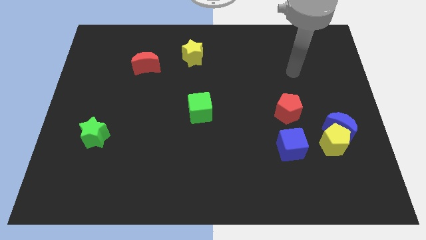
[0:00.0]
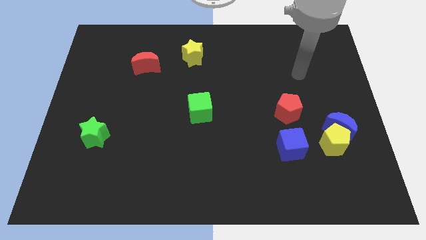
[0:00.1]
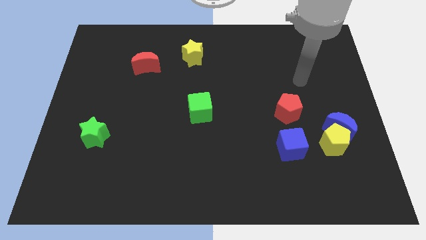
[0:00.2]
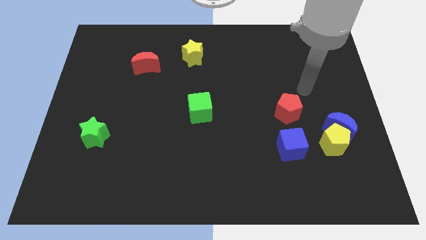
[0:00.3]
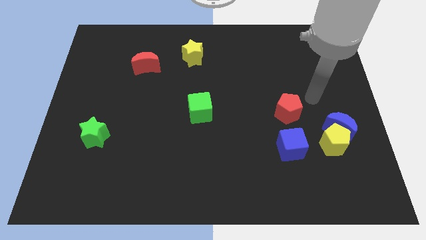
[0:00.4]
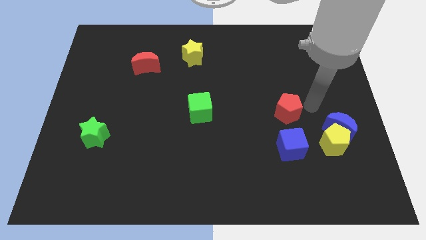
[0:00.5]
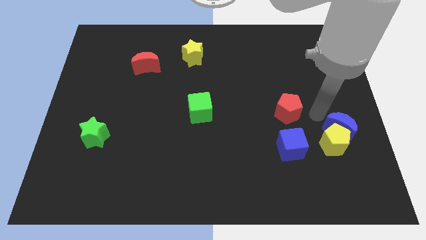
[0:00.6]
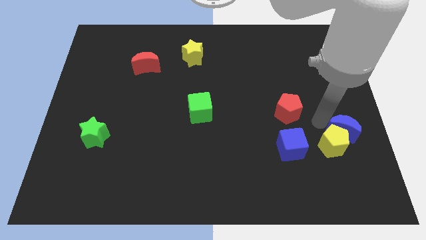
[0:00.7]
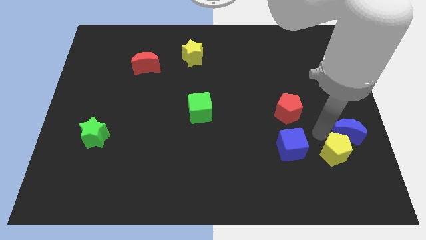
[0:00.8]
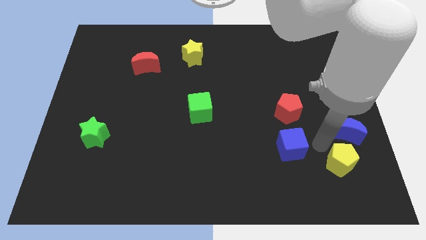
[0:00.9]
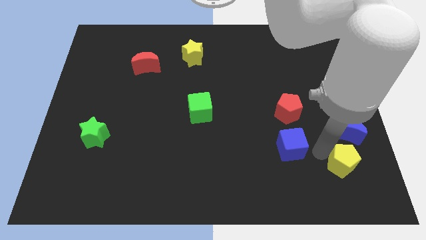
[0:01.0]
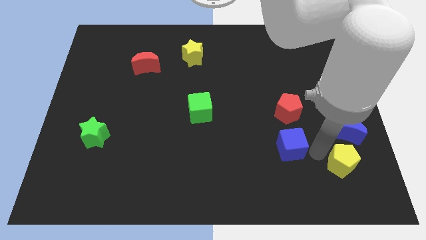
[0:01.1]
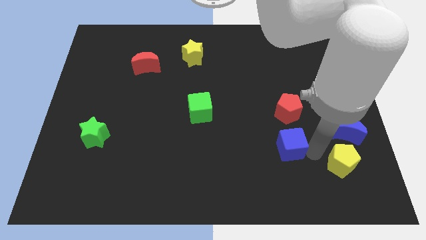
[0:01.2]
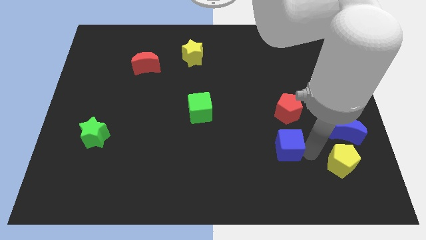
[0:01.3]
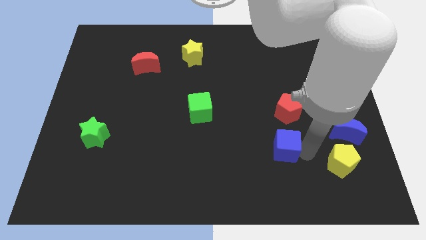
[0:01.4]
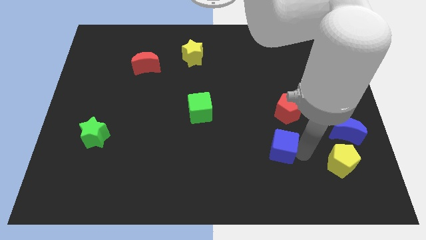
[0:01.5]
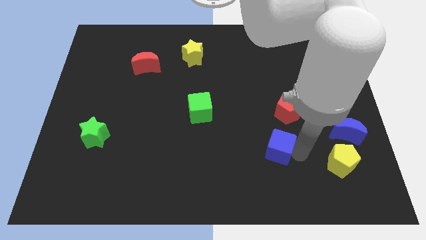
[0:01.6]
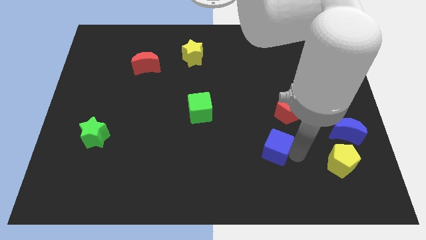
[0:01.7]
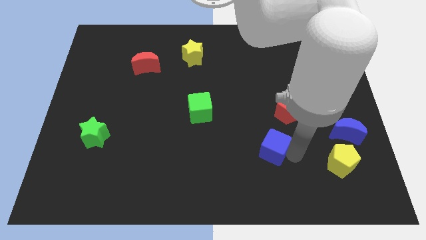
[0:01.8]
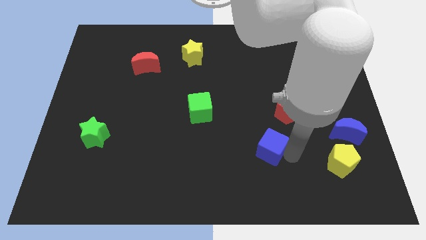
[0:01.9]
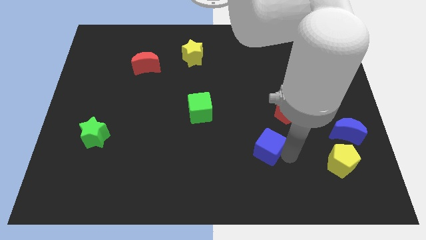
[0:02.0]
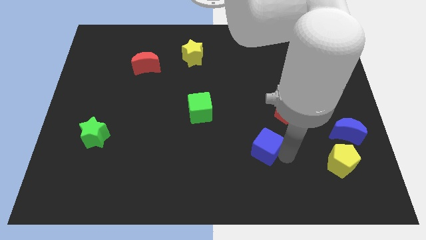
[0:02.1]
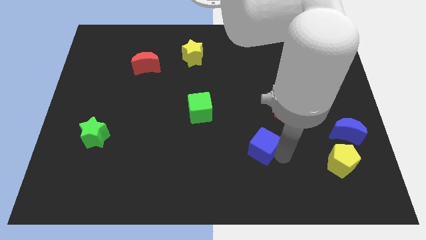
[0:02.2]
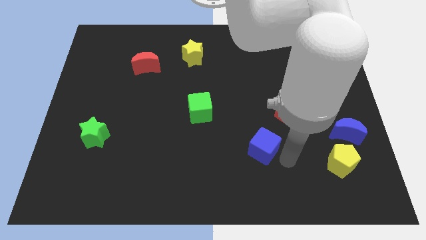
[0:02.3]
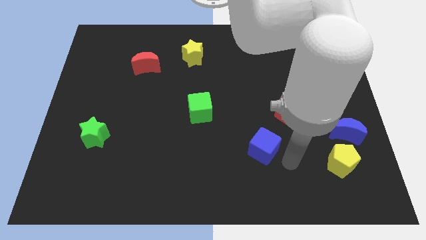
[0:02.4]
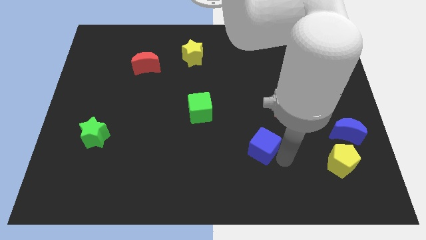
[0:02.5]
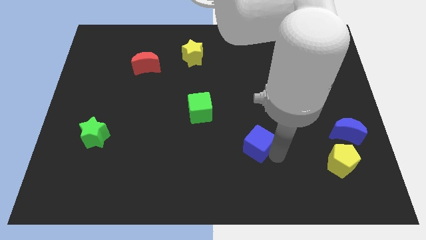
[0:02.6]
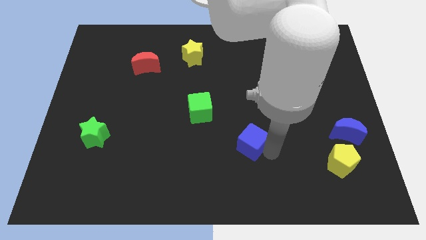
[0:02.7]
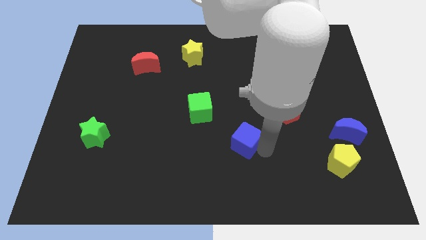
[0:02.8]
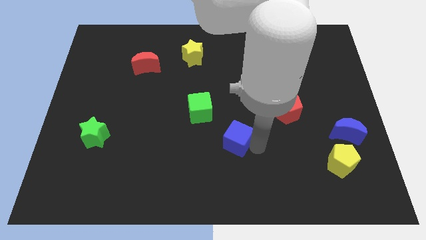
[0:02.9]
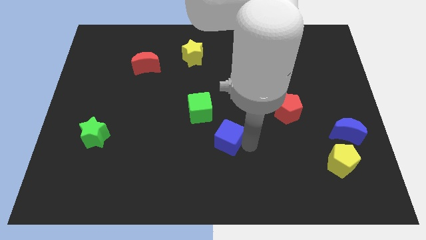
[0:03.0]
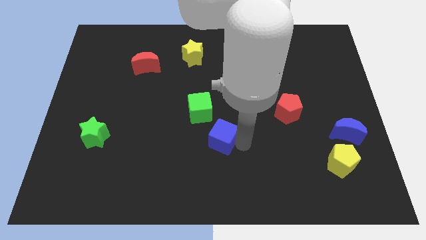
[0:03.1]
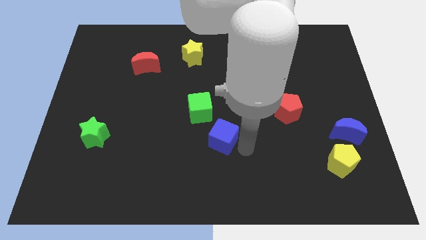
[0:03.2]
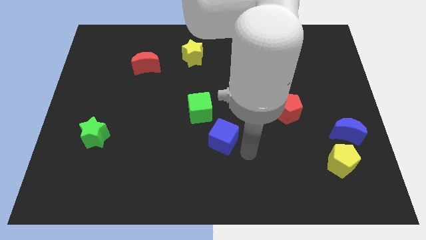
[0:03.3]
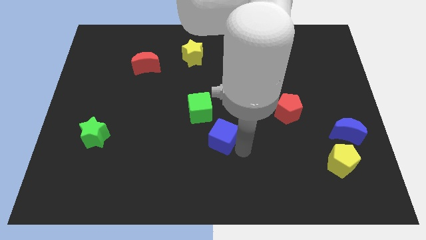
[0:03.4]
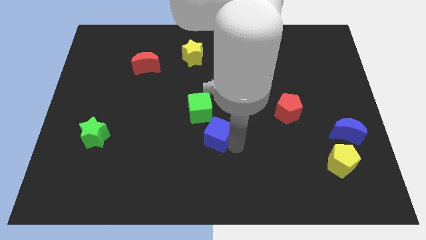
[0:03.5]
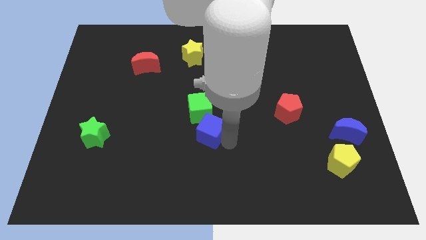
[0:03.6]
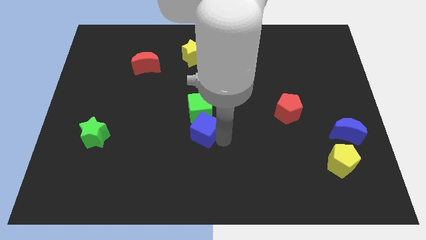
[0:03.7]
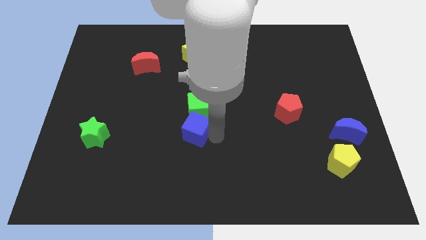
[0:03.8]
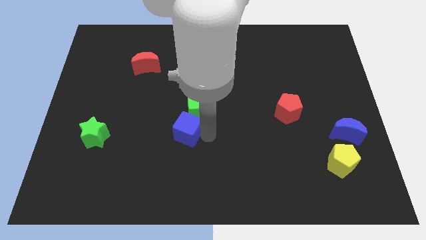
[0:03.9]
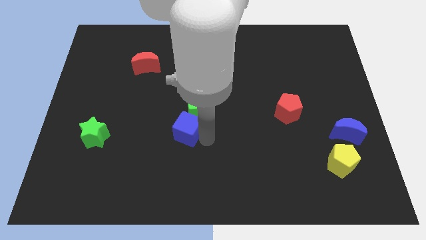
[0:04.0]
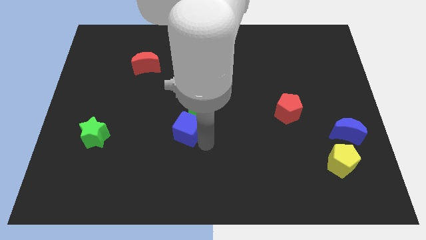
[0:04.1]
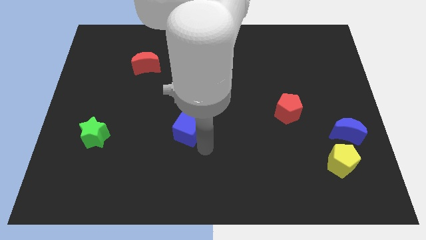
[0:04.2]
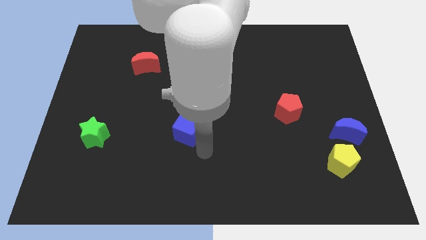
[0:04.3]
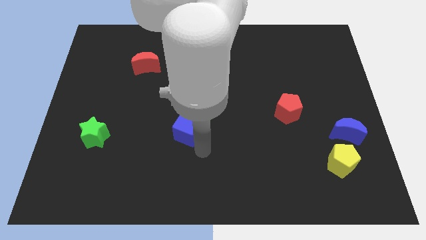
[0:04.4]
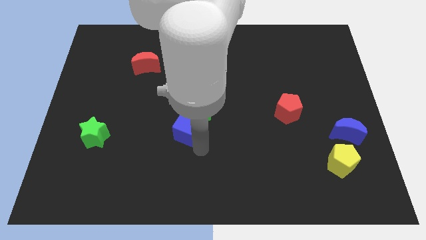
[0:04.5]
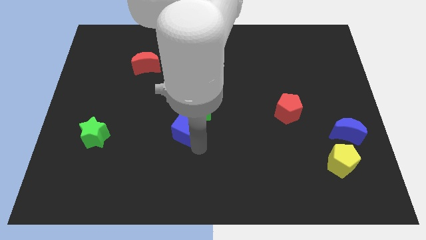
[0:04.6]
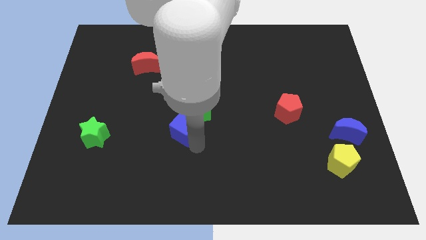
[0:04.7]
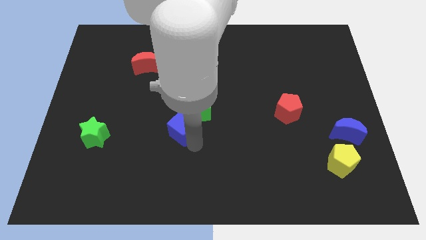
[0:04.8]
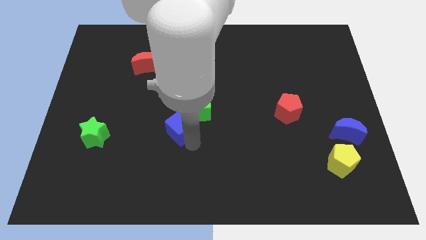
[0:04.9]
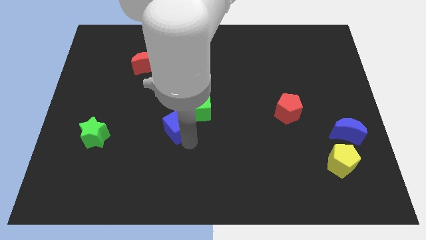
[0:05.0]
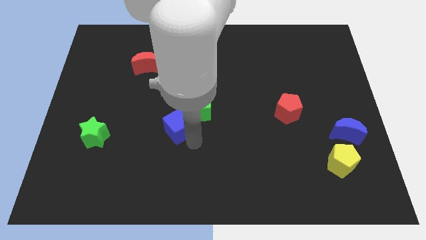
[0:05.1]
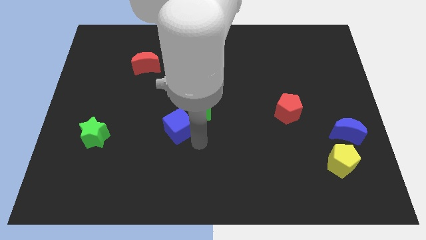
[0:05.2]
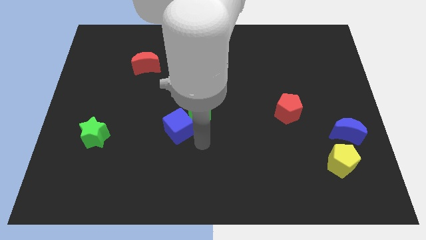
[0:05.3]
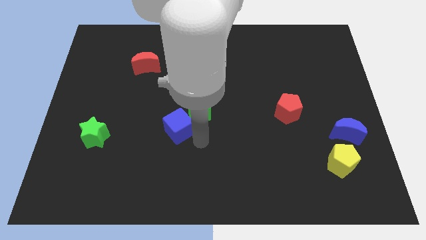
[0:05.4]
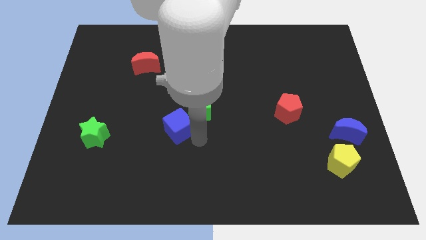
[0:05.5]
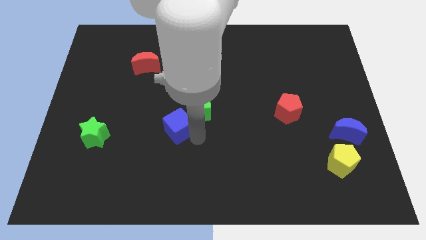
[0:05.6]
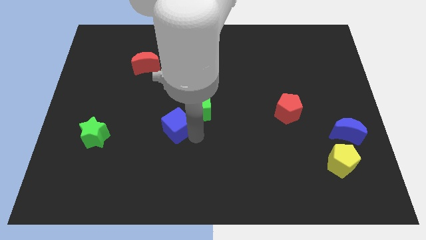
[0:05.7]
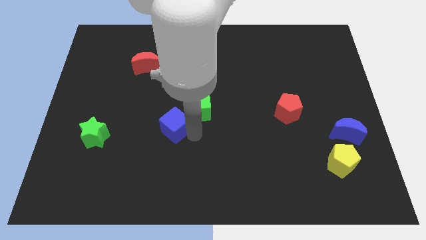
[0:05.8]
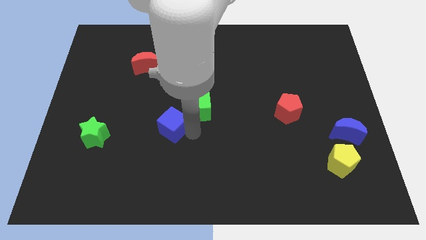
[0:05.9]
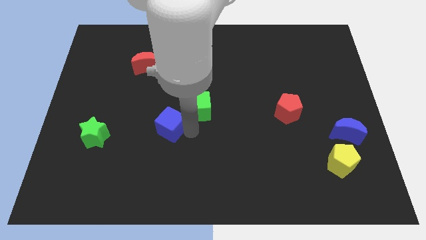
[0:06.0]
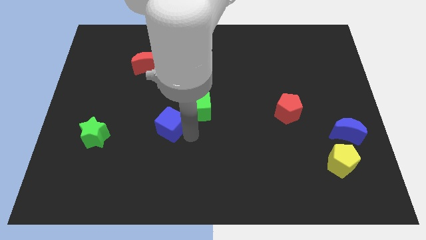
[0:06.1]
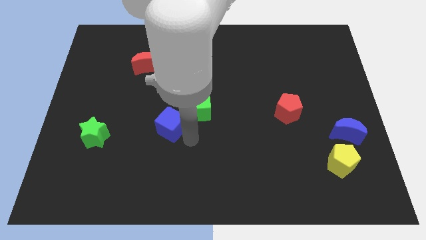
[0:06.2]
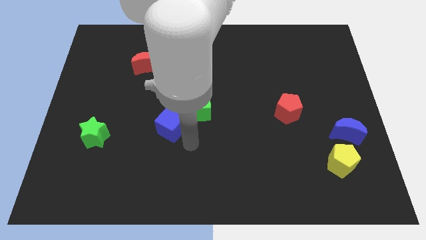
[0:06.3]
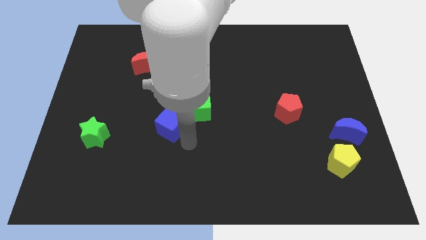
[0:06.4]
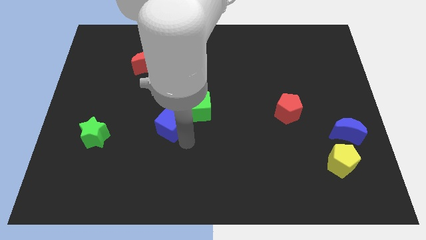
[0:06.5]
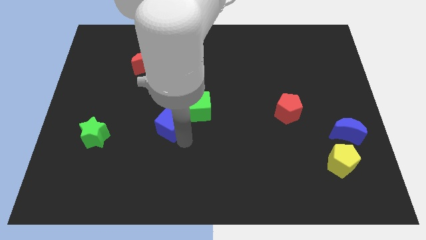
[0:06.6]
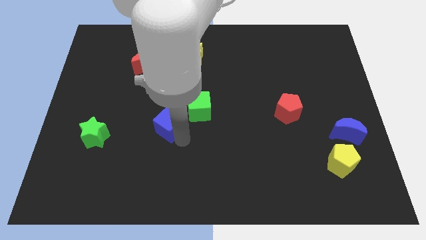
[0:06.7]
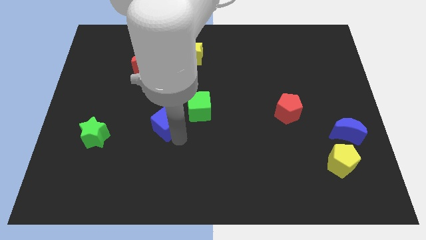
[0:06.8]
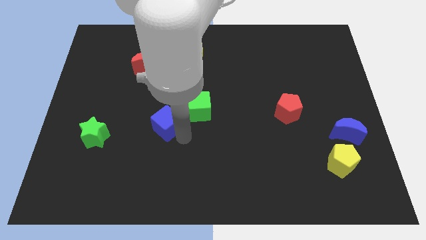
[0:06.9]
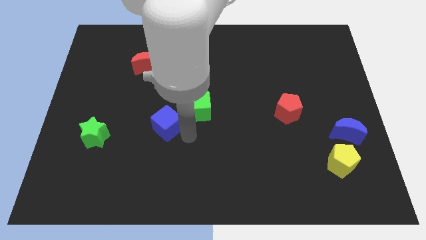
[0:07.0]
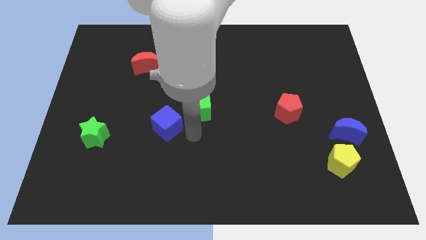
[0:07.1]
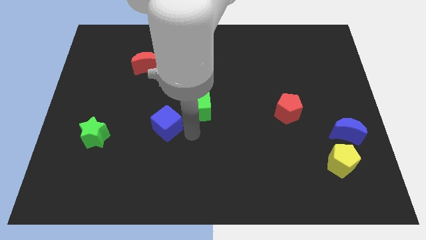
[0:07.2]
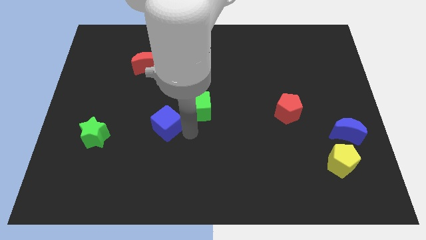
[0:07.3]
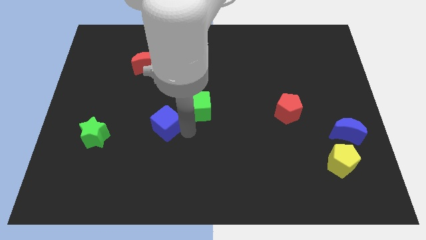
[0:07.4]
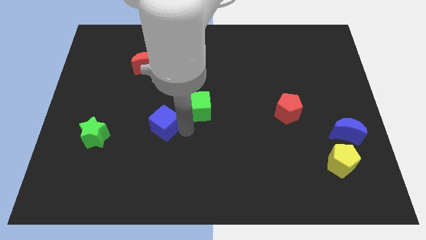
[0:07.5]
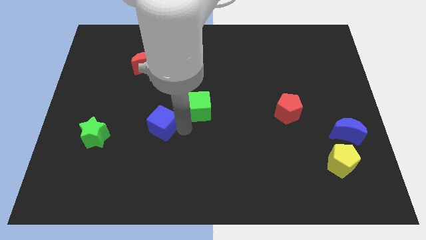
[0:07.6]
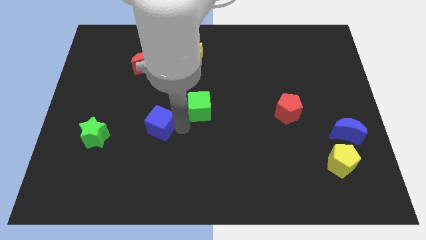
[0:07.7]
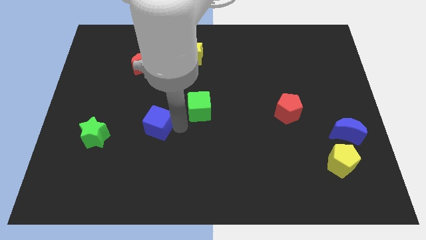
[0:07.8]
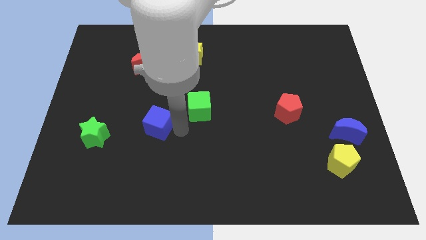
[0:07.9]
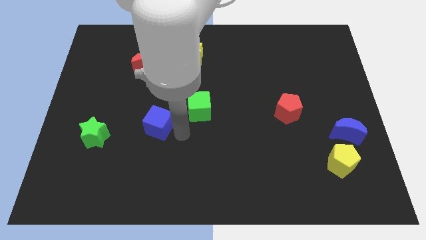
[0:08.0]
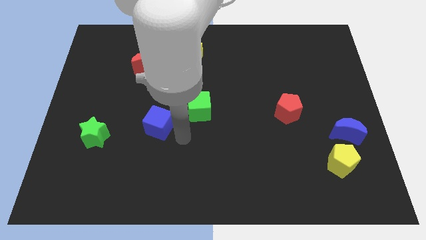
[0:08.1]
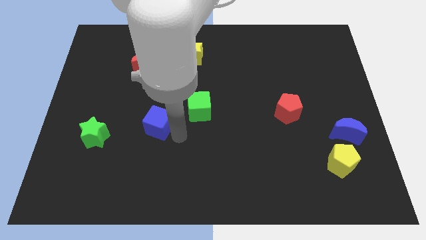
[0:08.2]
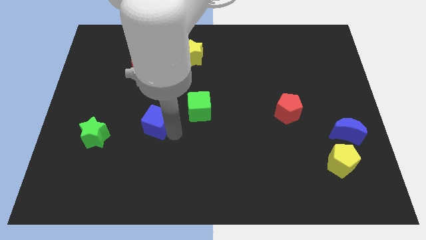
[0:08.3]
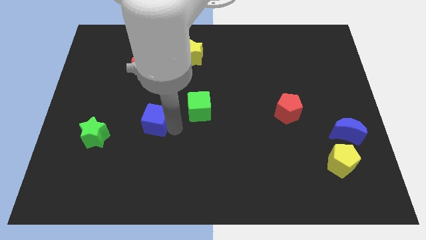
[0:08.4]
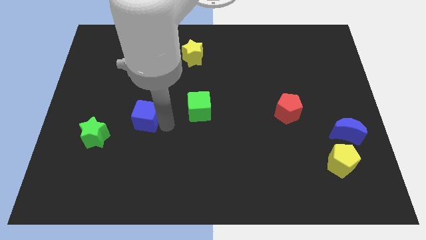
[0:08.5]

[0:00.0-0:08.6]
slide the blue cube to the top right side of the green star
